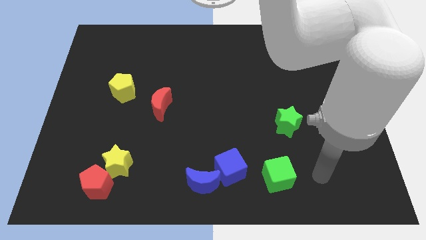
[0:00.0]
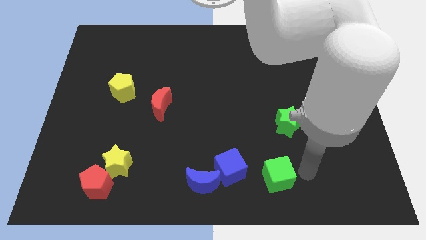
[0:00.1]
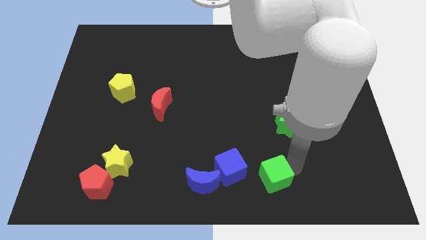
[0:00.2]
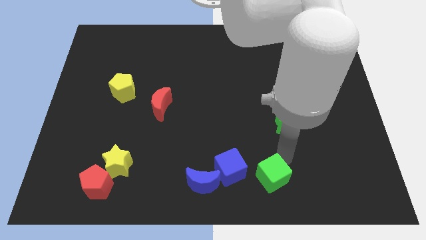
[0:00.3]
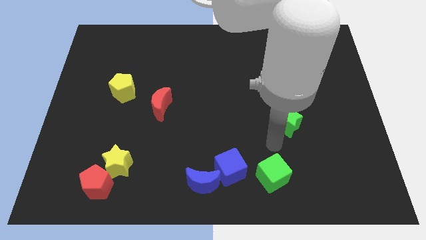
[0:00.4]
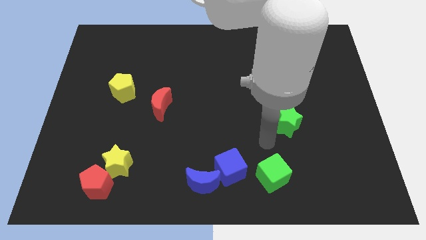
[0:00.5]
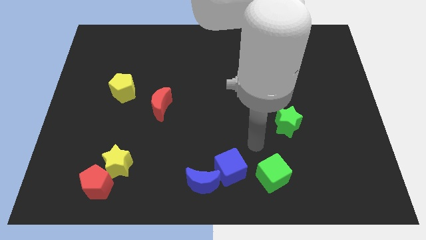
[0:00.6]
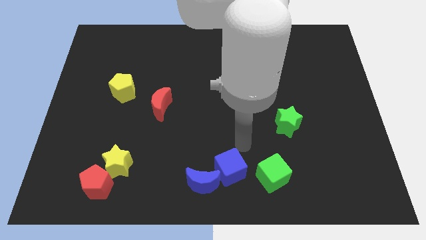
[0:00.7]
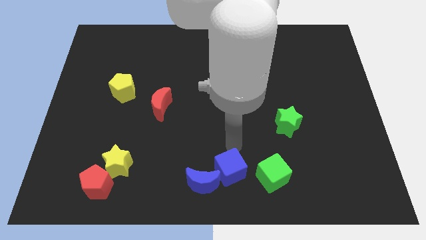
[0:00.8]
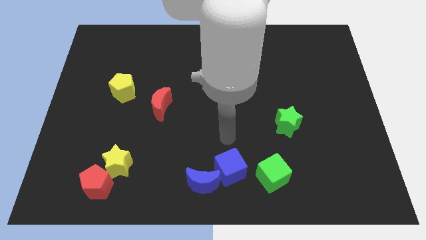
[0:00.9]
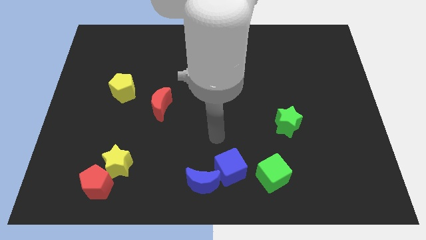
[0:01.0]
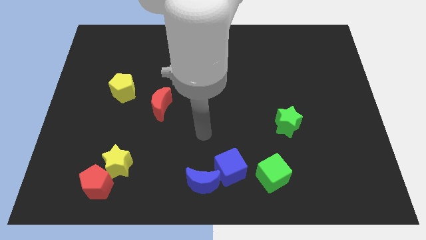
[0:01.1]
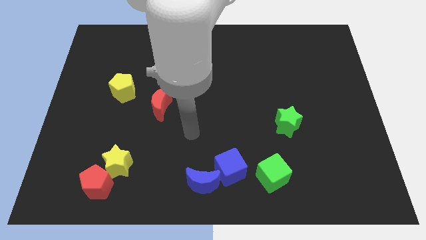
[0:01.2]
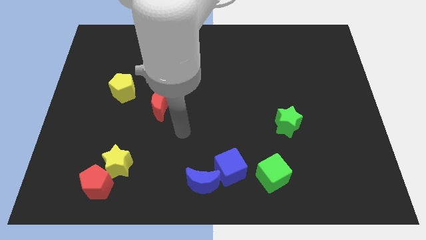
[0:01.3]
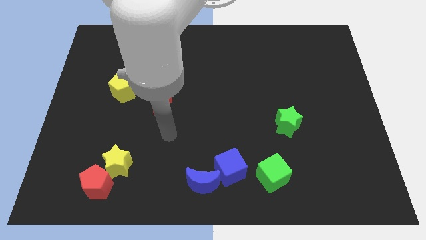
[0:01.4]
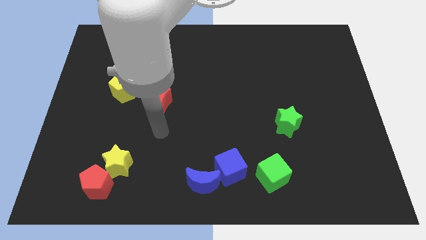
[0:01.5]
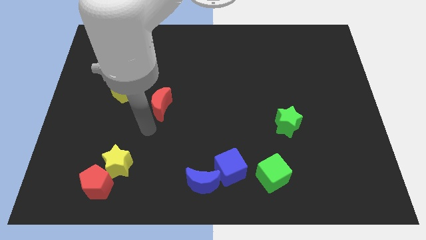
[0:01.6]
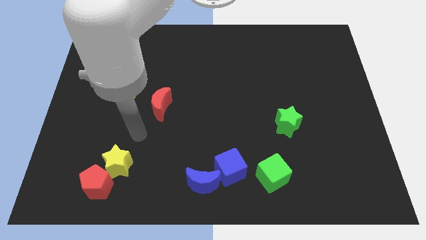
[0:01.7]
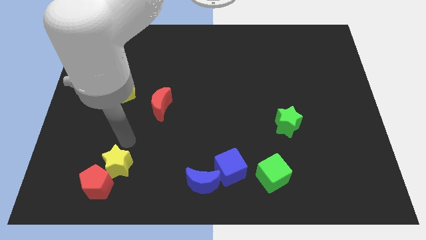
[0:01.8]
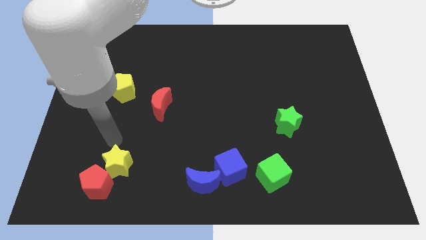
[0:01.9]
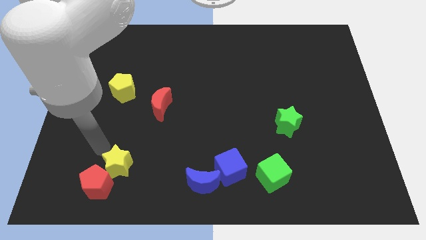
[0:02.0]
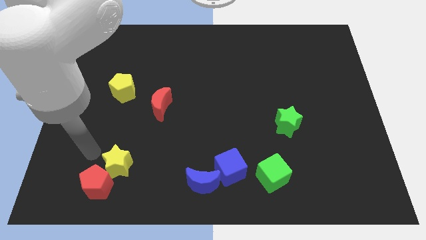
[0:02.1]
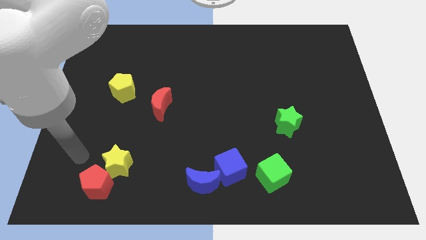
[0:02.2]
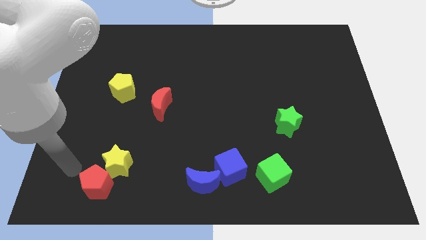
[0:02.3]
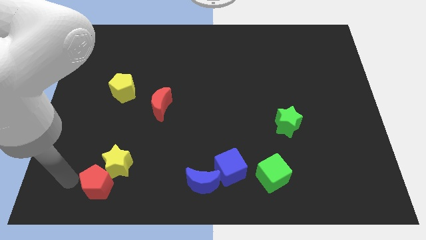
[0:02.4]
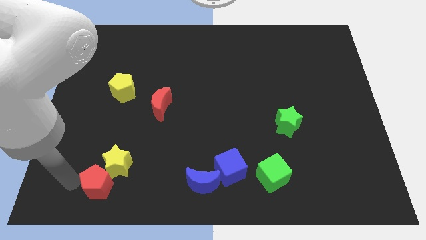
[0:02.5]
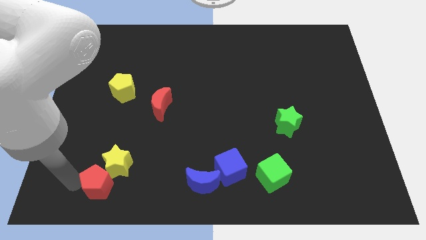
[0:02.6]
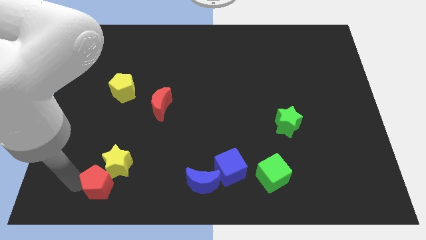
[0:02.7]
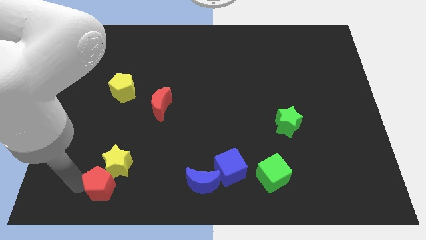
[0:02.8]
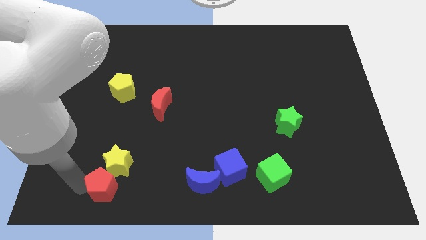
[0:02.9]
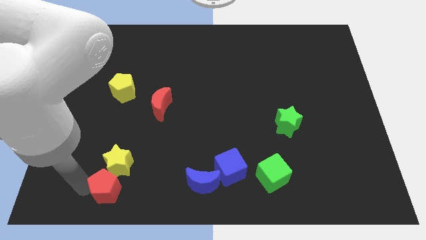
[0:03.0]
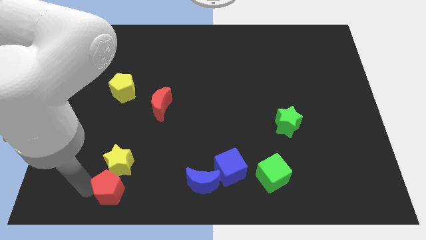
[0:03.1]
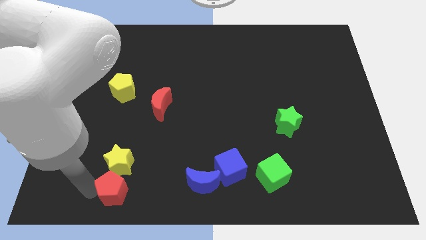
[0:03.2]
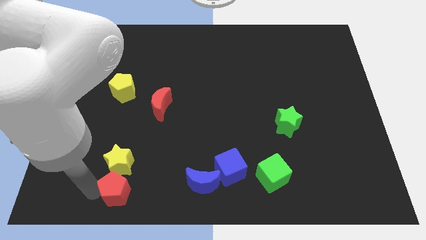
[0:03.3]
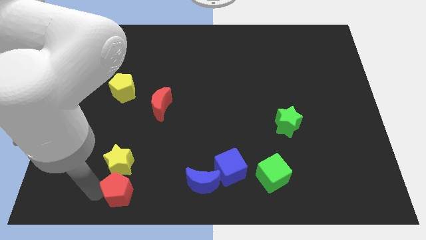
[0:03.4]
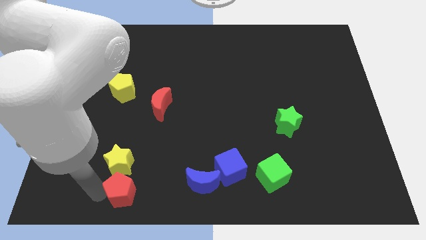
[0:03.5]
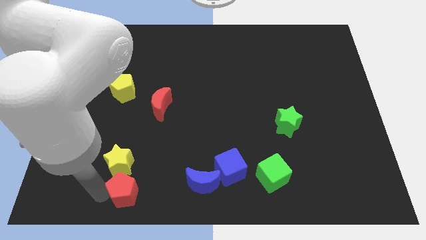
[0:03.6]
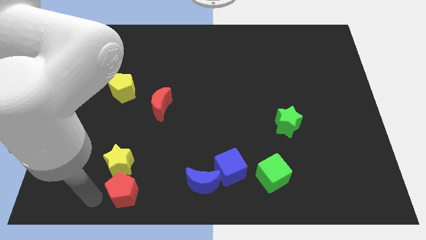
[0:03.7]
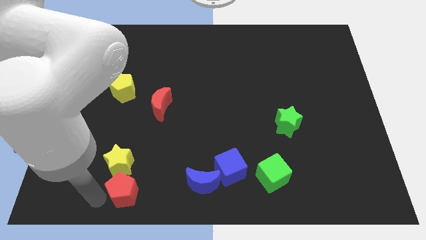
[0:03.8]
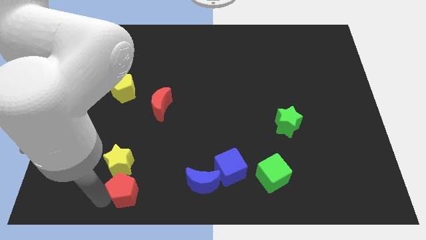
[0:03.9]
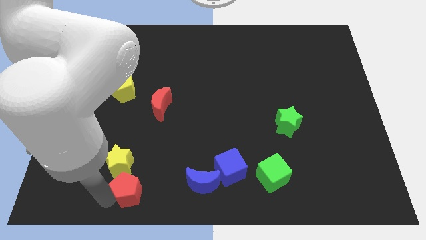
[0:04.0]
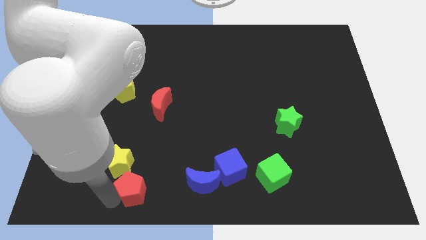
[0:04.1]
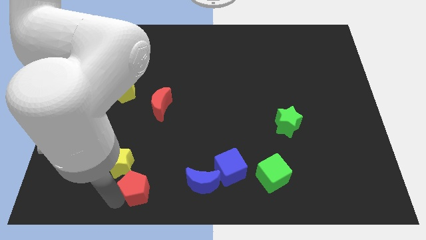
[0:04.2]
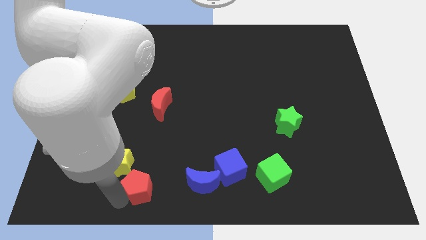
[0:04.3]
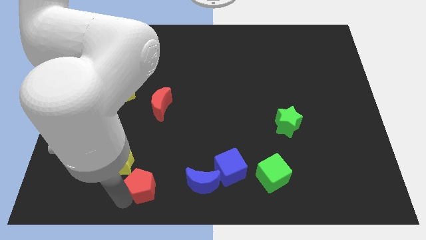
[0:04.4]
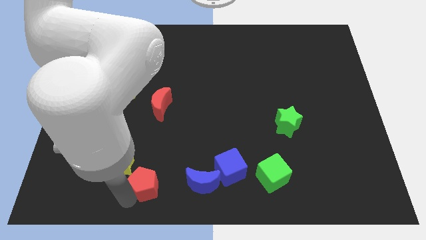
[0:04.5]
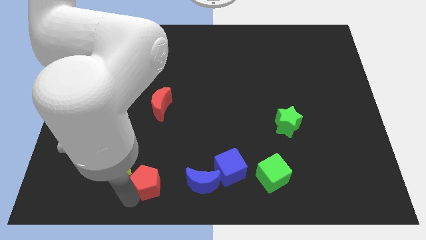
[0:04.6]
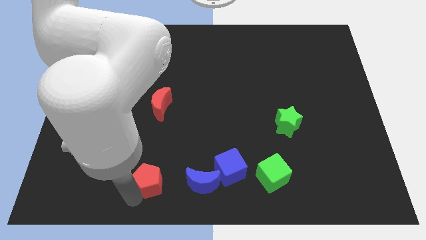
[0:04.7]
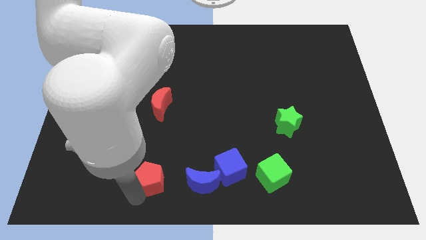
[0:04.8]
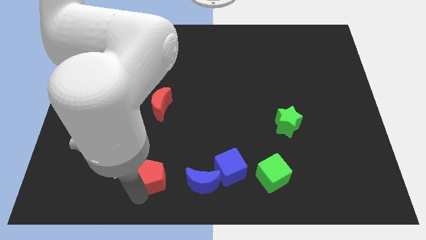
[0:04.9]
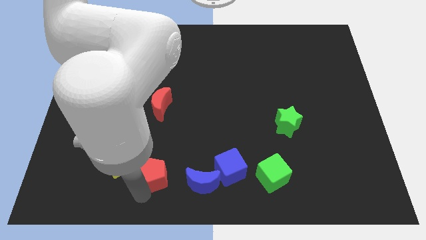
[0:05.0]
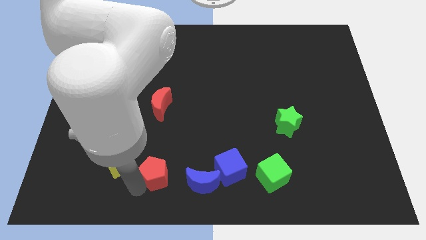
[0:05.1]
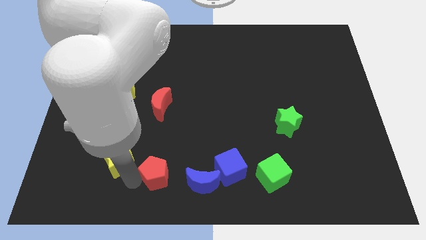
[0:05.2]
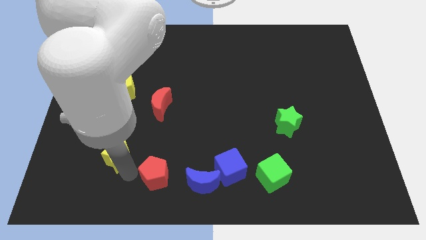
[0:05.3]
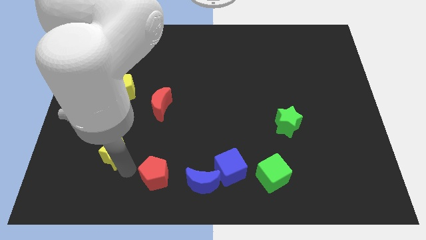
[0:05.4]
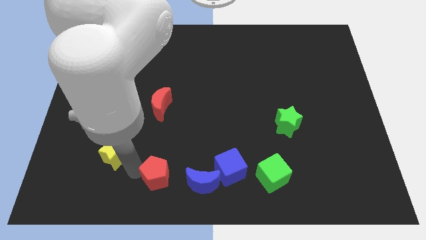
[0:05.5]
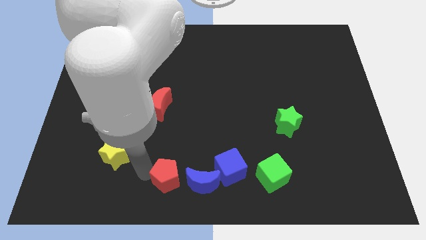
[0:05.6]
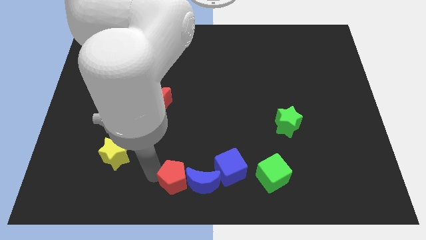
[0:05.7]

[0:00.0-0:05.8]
put the red pentagon next to the blue moon

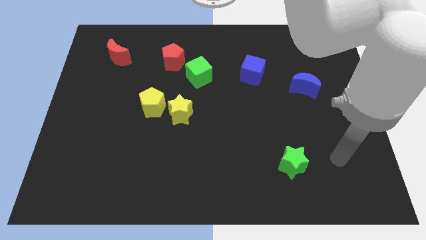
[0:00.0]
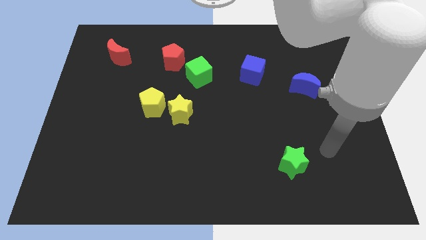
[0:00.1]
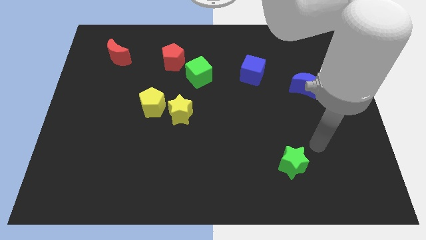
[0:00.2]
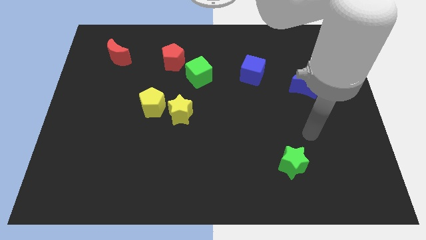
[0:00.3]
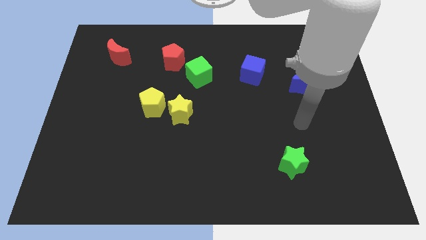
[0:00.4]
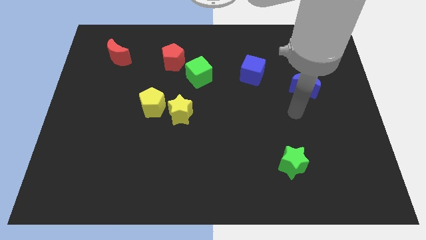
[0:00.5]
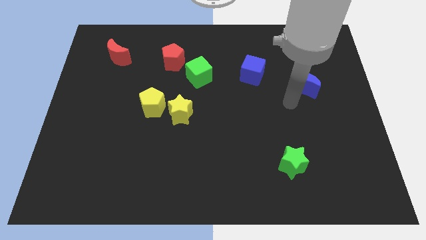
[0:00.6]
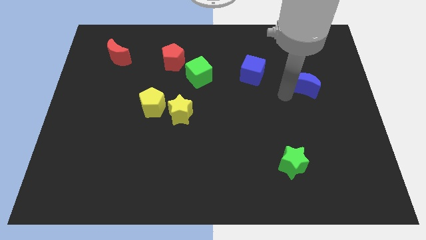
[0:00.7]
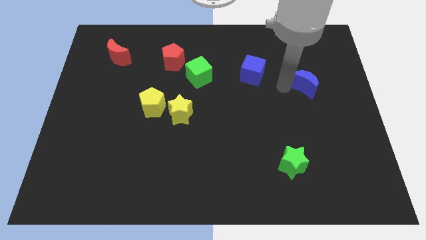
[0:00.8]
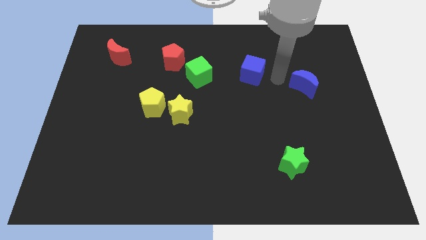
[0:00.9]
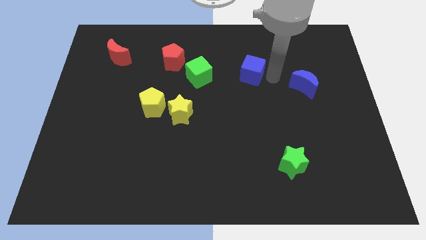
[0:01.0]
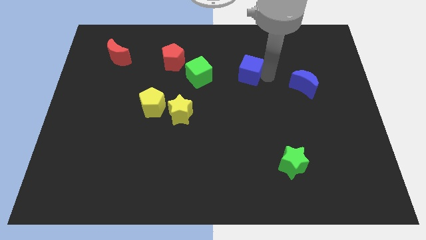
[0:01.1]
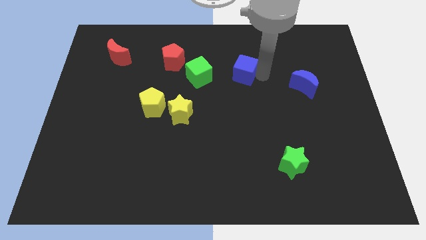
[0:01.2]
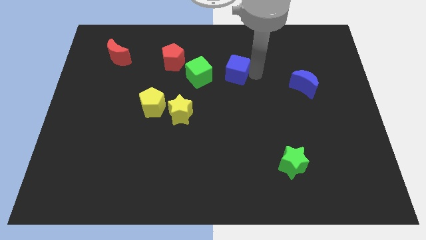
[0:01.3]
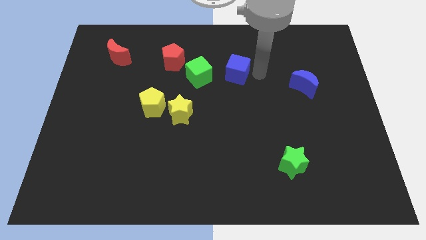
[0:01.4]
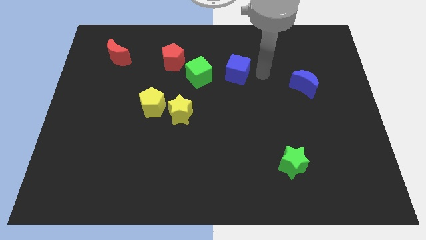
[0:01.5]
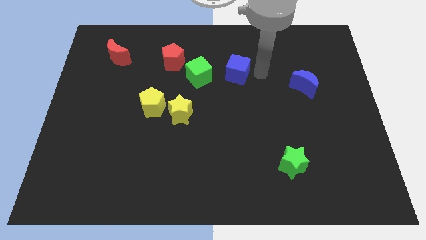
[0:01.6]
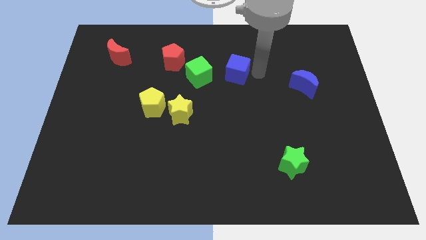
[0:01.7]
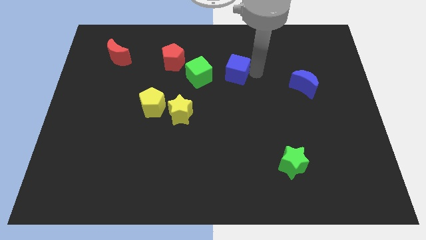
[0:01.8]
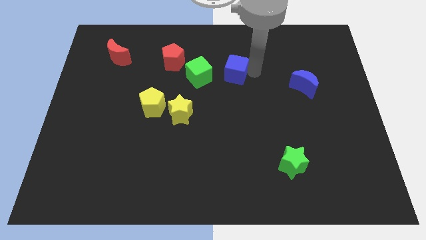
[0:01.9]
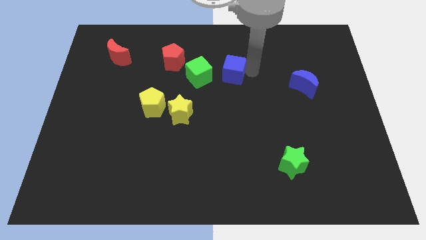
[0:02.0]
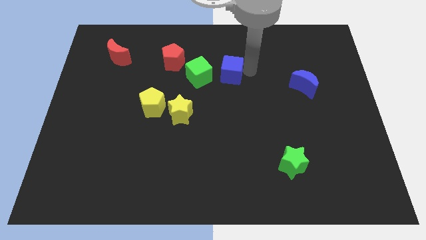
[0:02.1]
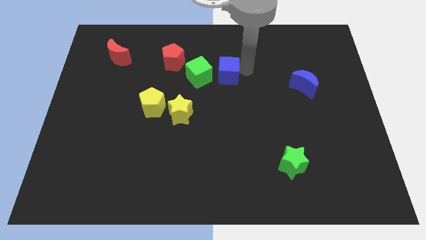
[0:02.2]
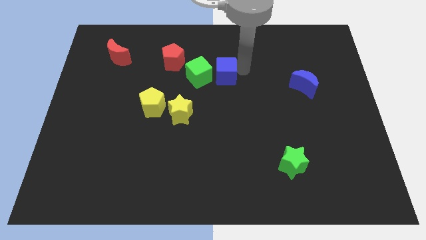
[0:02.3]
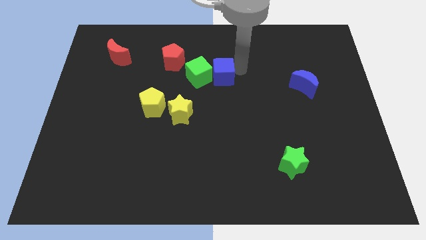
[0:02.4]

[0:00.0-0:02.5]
slide the blue cube towards the green cube
